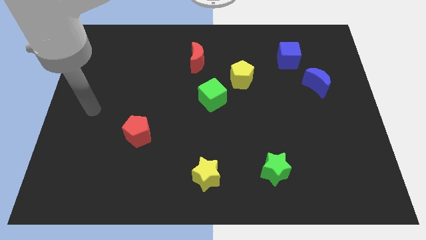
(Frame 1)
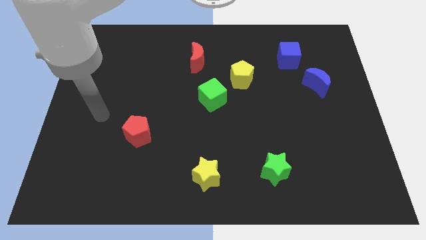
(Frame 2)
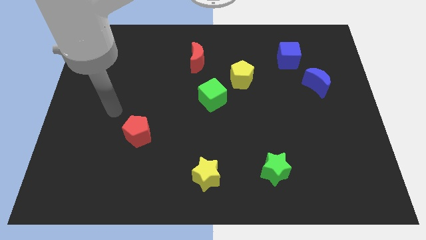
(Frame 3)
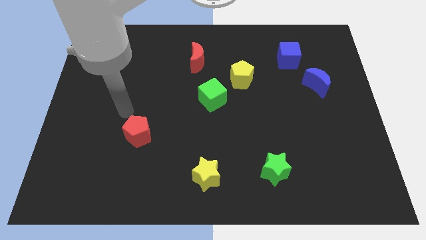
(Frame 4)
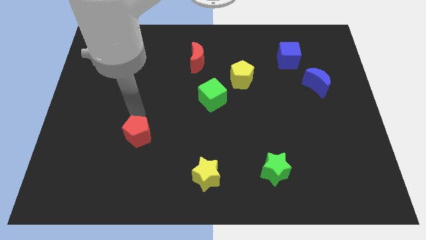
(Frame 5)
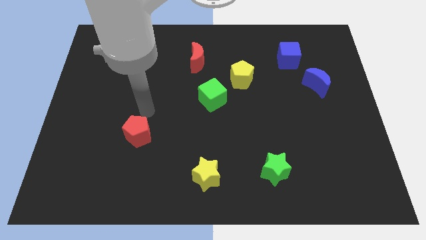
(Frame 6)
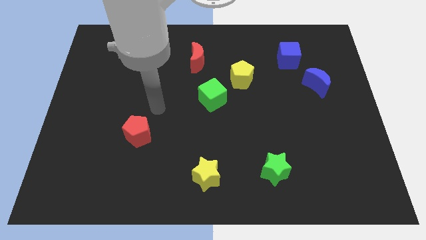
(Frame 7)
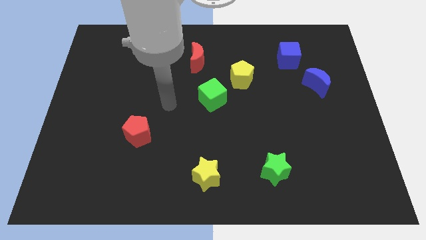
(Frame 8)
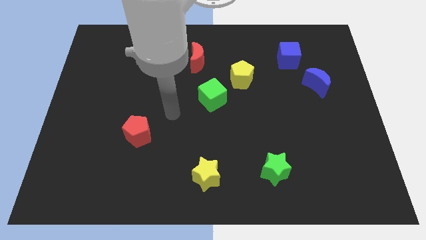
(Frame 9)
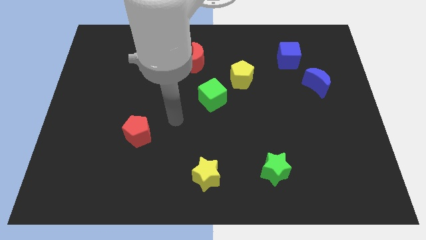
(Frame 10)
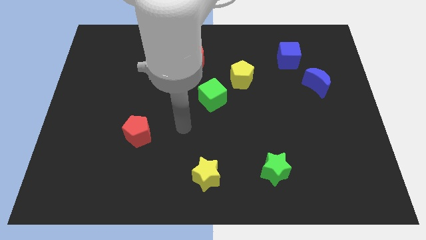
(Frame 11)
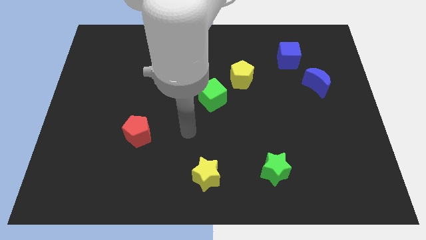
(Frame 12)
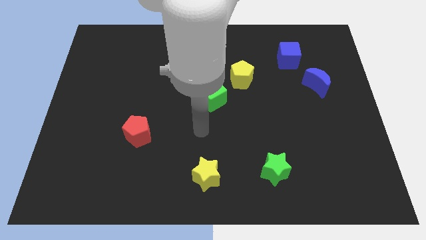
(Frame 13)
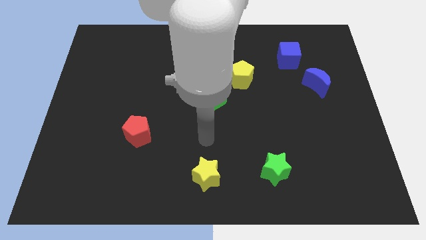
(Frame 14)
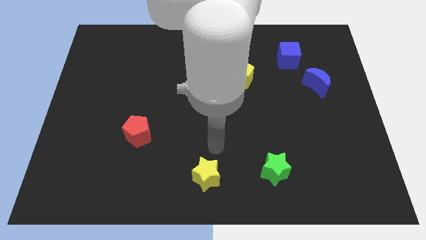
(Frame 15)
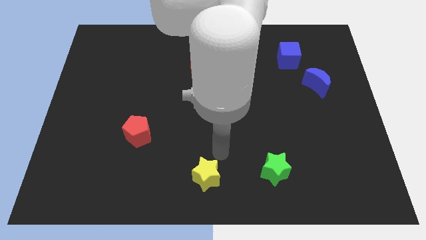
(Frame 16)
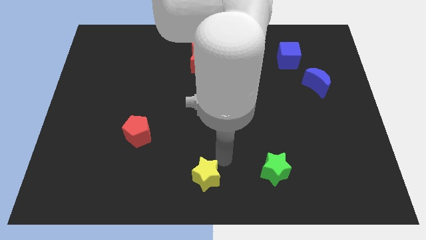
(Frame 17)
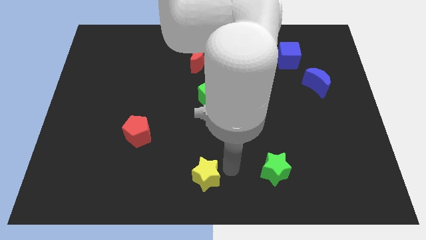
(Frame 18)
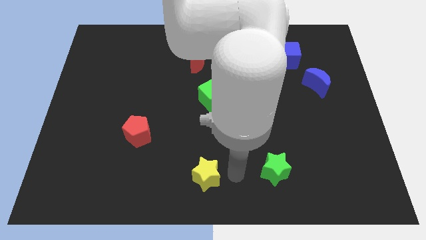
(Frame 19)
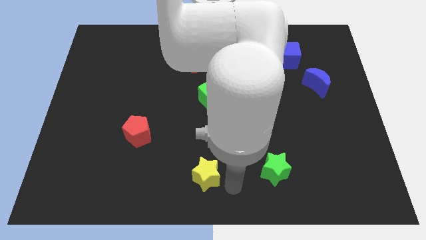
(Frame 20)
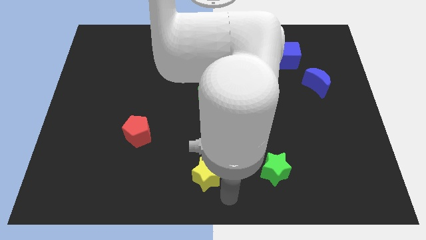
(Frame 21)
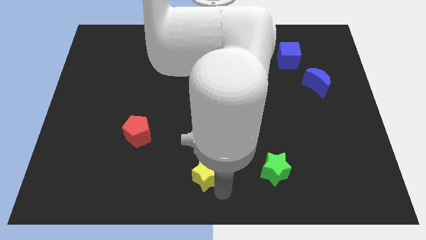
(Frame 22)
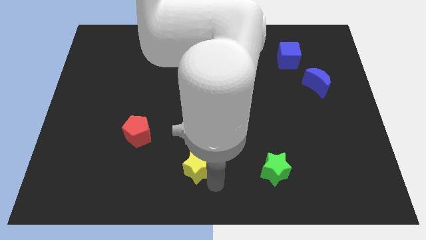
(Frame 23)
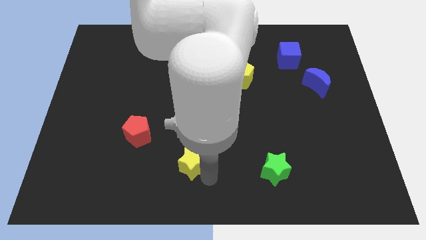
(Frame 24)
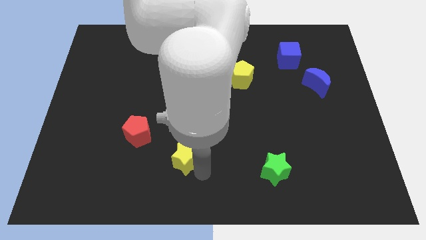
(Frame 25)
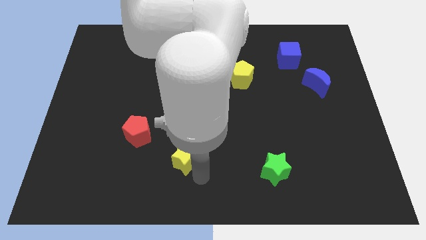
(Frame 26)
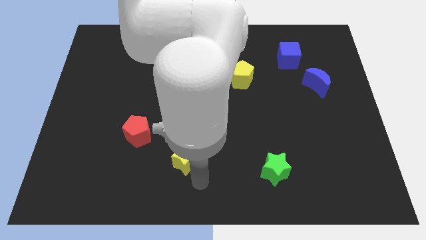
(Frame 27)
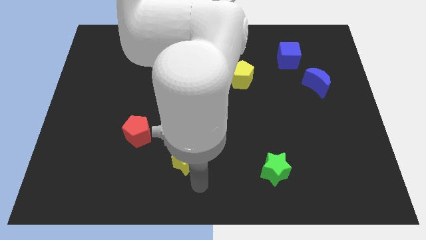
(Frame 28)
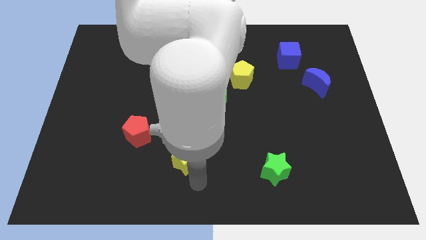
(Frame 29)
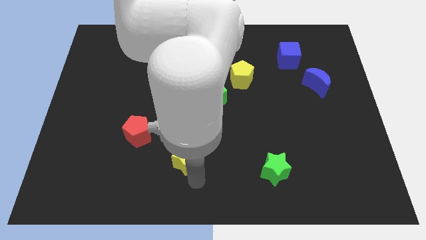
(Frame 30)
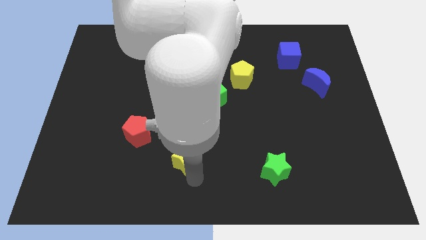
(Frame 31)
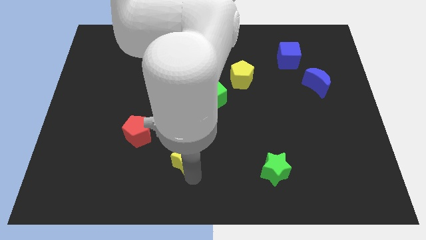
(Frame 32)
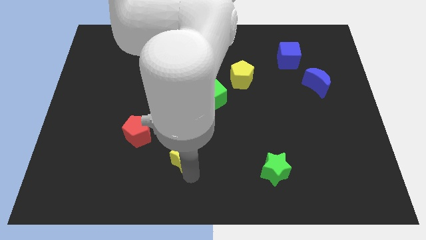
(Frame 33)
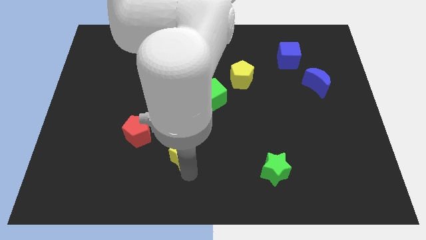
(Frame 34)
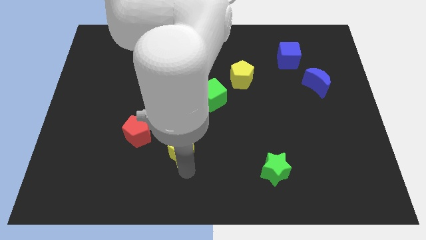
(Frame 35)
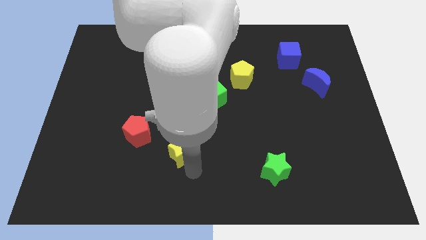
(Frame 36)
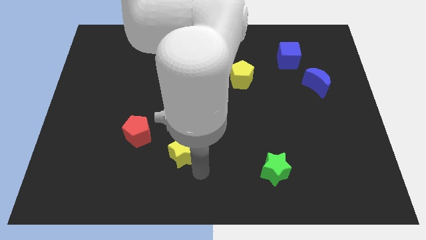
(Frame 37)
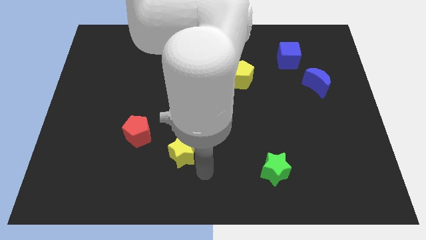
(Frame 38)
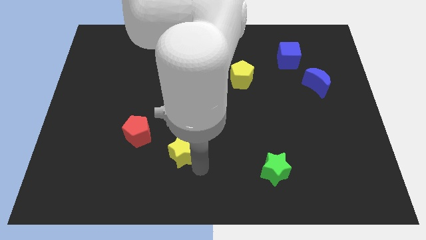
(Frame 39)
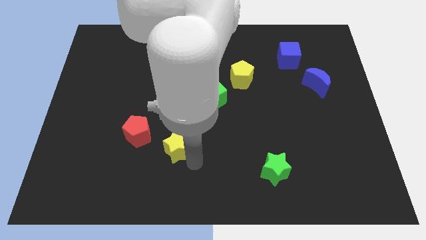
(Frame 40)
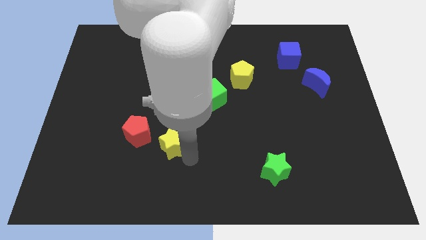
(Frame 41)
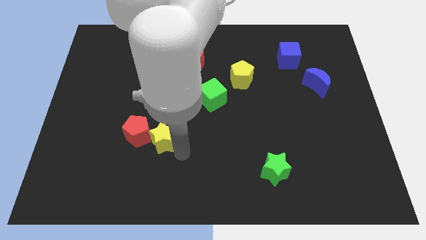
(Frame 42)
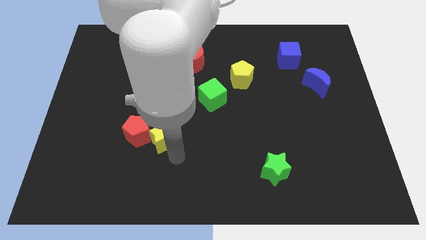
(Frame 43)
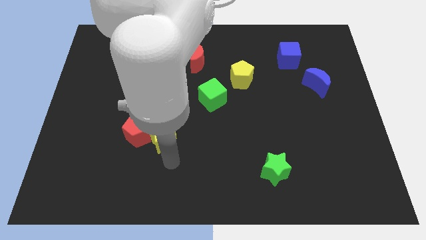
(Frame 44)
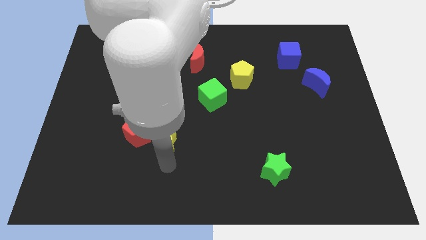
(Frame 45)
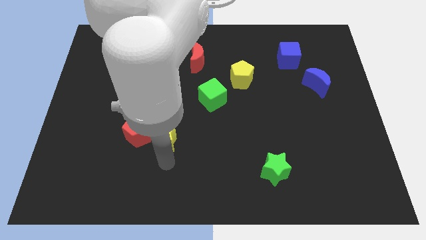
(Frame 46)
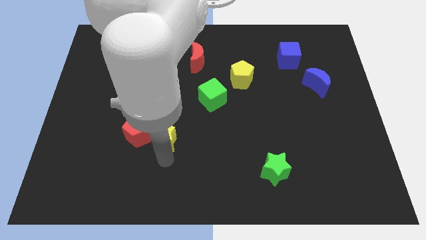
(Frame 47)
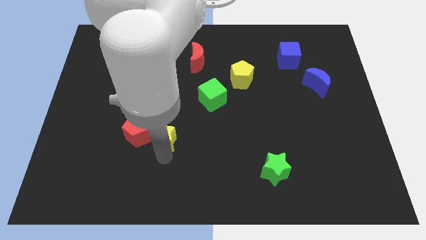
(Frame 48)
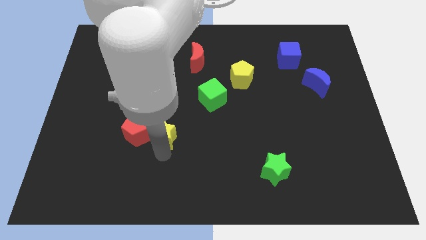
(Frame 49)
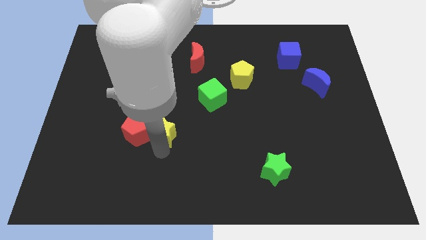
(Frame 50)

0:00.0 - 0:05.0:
move the yellow star diagonally up and to the right of the red pentagon

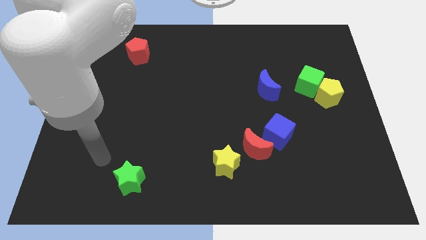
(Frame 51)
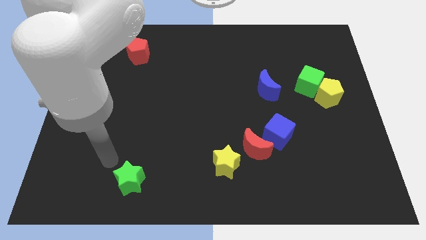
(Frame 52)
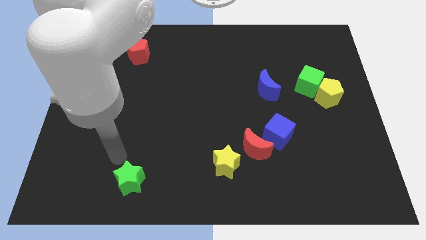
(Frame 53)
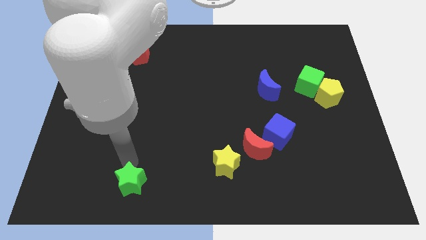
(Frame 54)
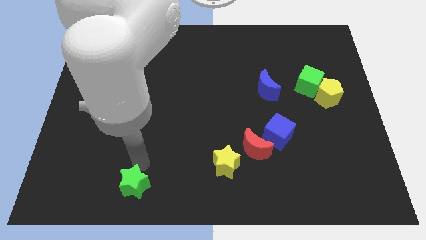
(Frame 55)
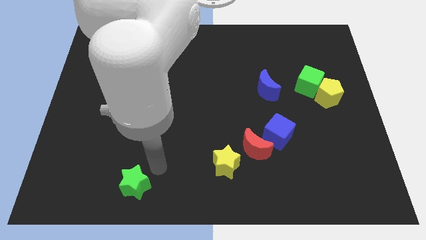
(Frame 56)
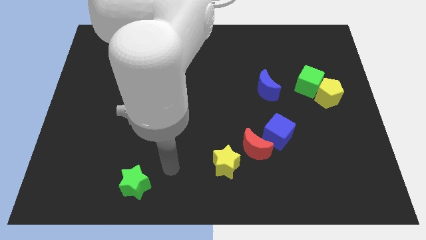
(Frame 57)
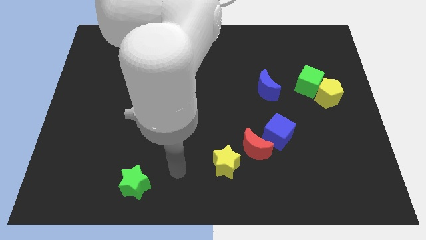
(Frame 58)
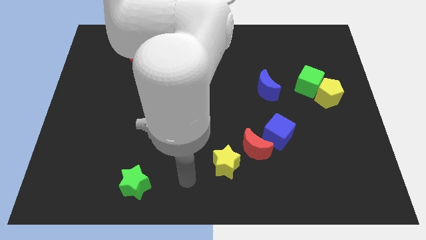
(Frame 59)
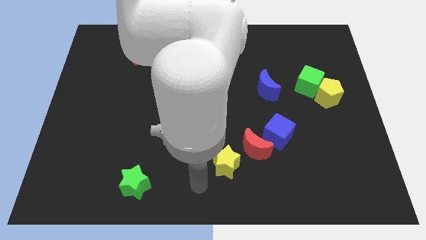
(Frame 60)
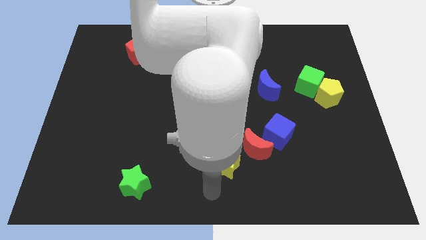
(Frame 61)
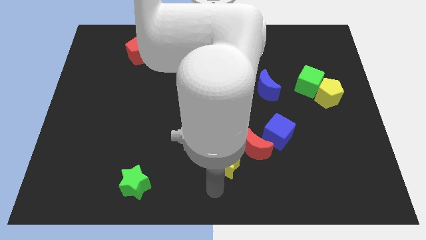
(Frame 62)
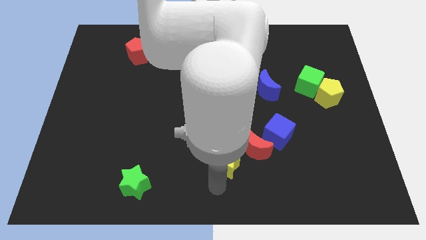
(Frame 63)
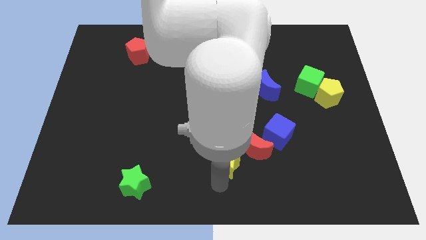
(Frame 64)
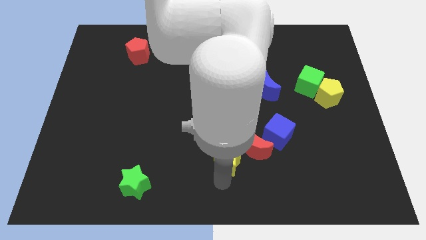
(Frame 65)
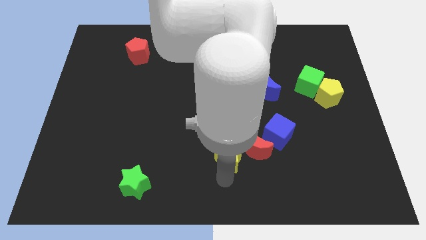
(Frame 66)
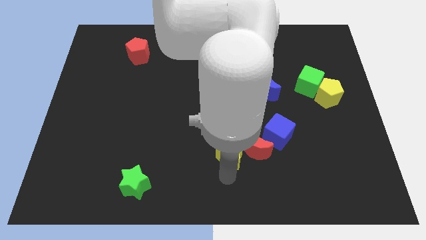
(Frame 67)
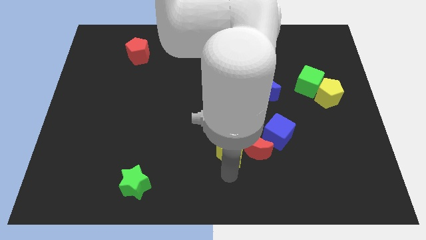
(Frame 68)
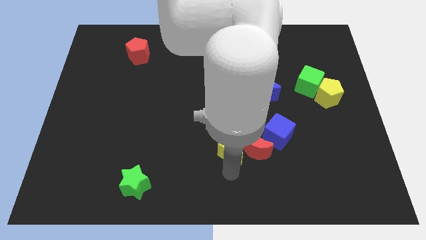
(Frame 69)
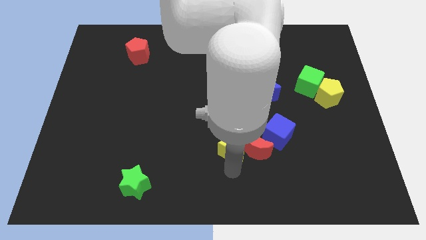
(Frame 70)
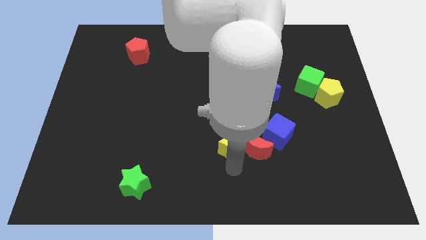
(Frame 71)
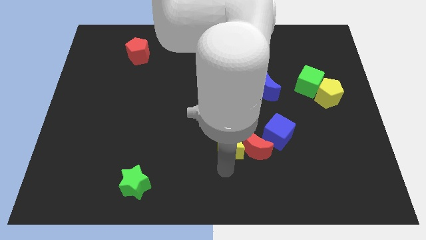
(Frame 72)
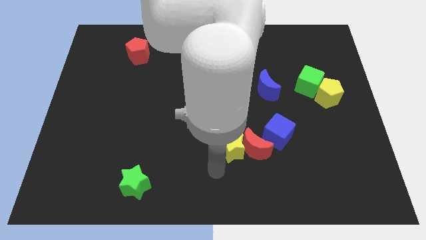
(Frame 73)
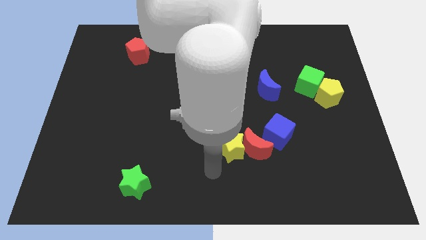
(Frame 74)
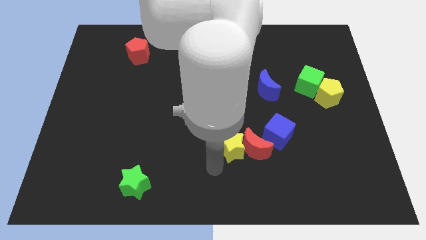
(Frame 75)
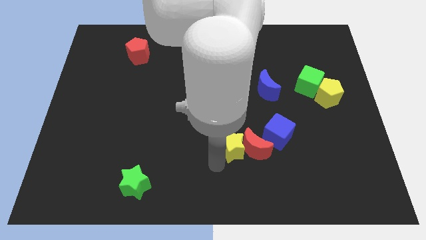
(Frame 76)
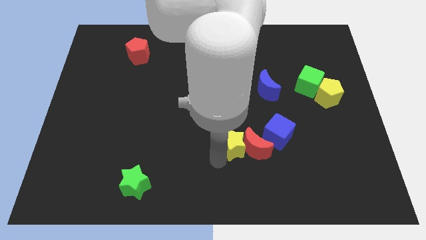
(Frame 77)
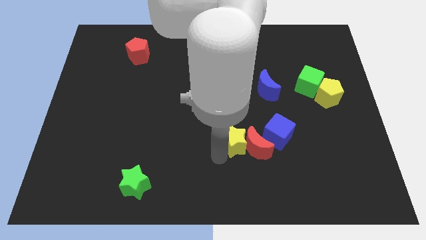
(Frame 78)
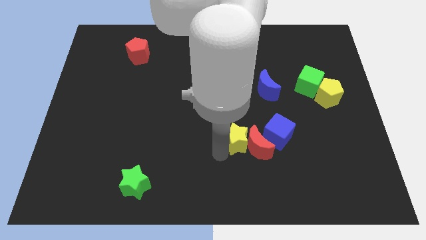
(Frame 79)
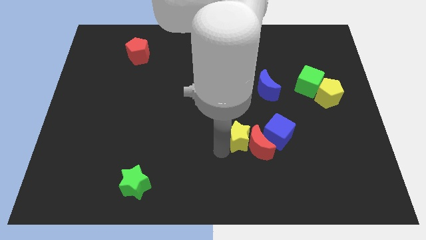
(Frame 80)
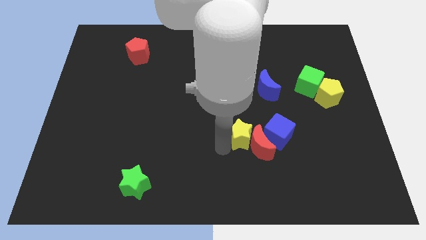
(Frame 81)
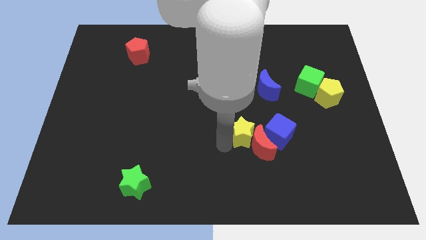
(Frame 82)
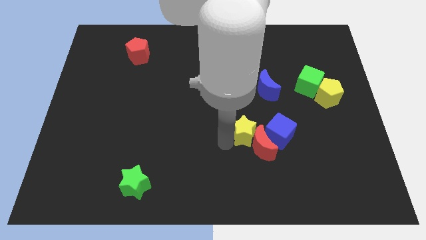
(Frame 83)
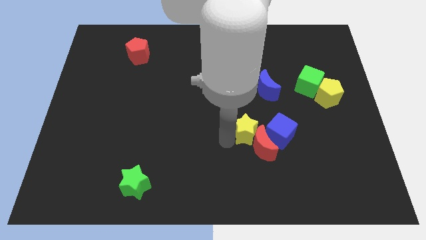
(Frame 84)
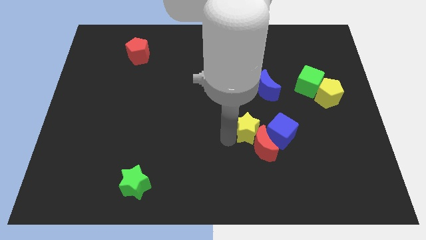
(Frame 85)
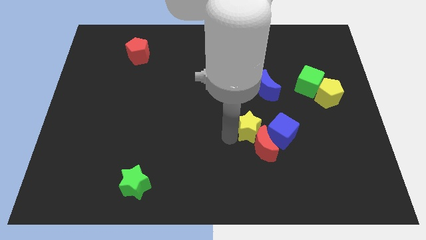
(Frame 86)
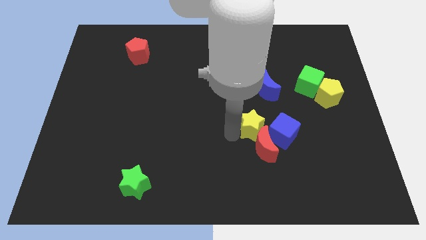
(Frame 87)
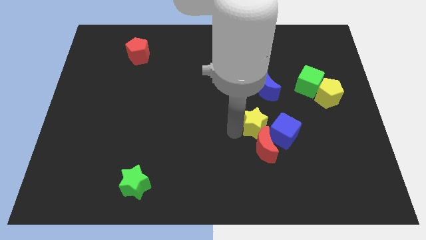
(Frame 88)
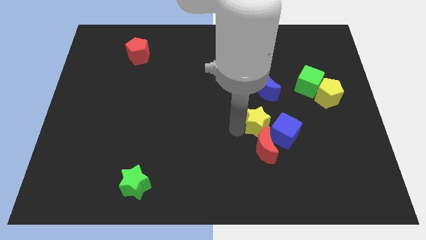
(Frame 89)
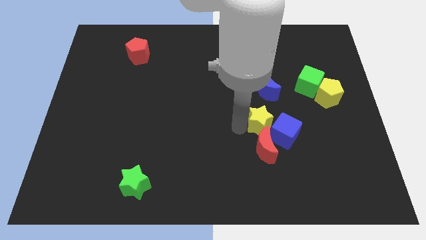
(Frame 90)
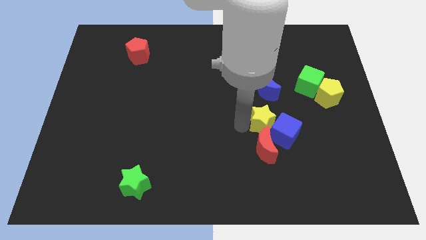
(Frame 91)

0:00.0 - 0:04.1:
put the yellow star to the top right of the red moon
